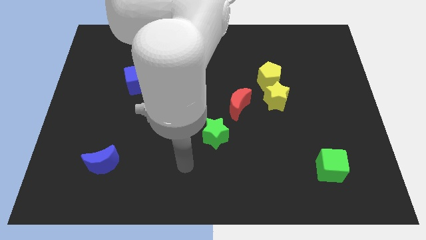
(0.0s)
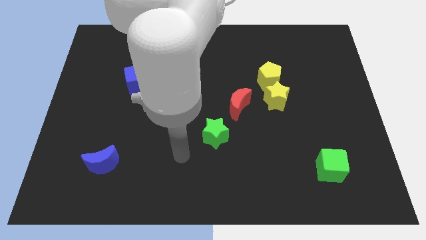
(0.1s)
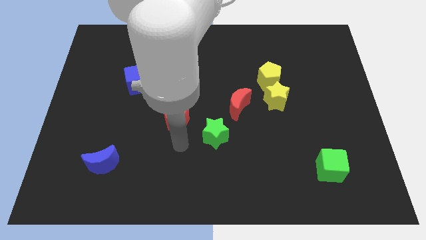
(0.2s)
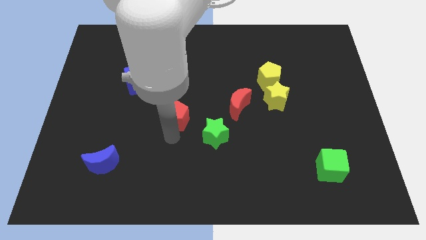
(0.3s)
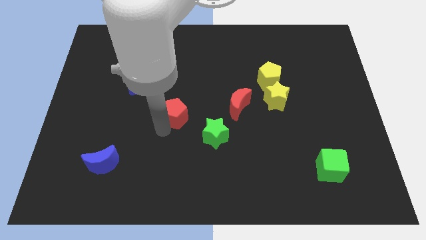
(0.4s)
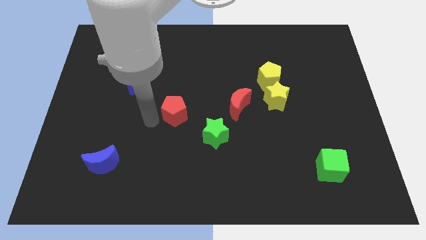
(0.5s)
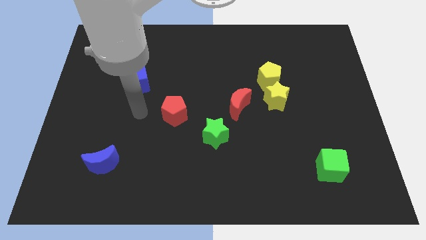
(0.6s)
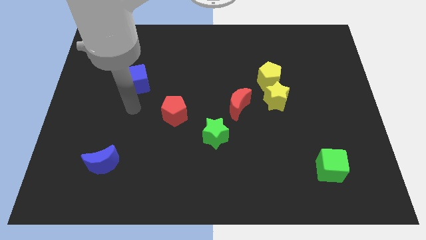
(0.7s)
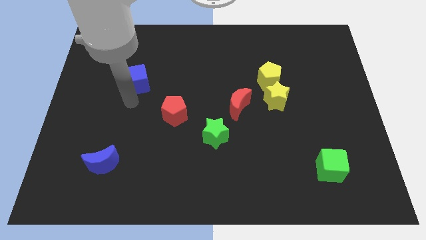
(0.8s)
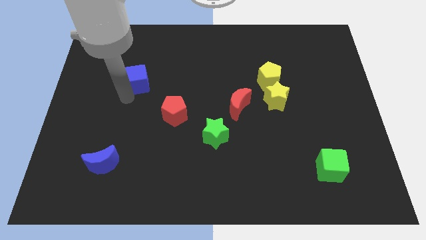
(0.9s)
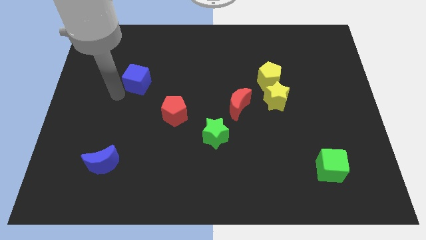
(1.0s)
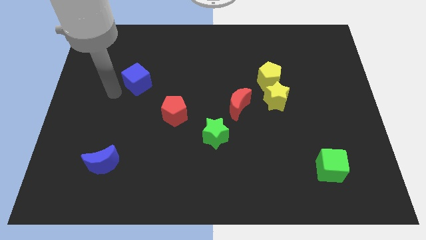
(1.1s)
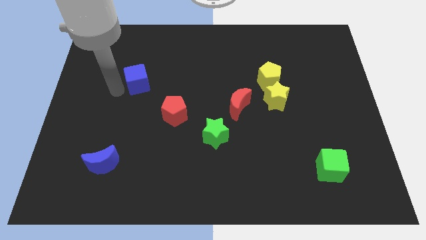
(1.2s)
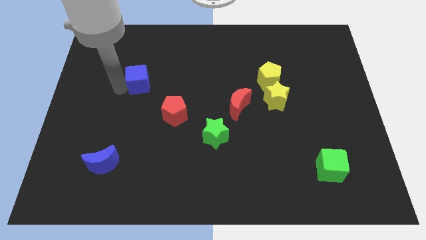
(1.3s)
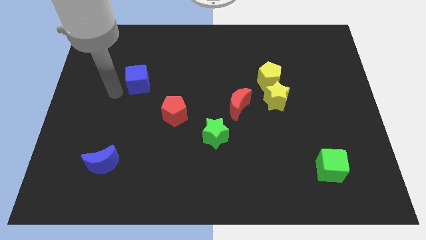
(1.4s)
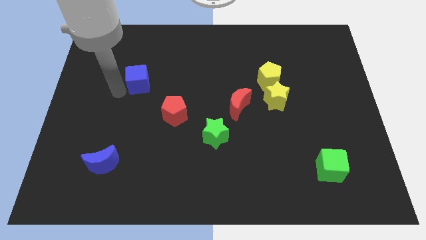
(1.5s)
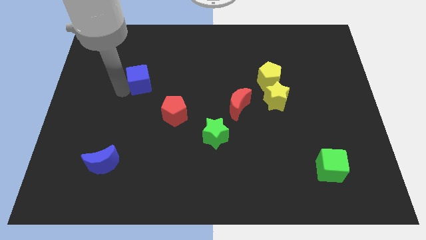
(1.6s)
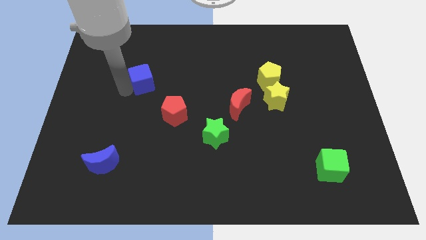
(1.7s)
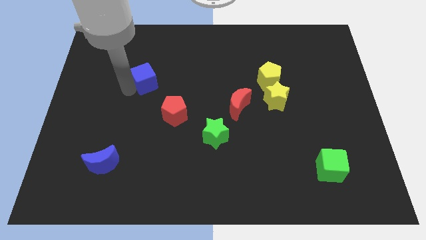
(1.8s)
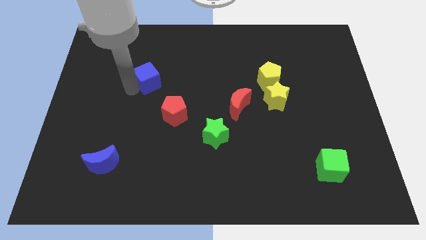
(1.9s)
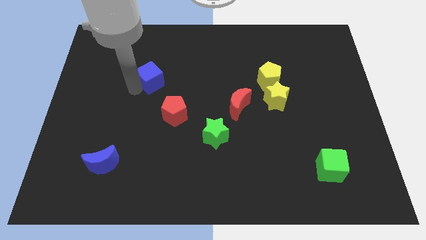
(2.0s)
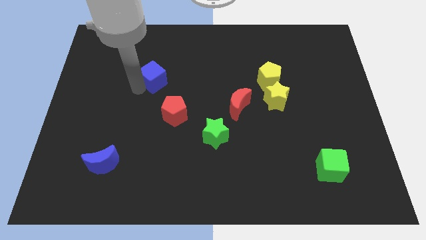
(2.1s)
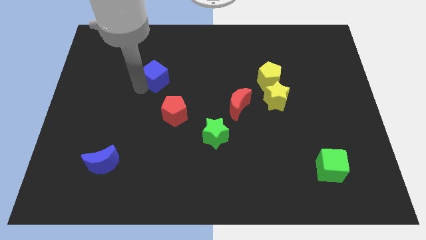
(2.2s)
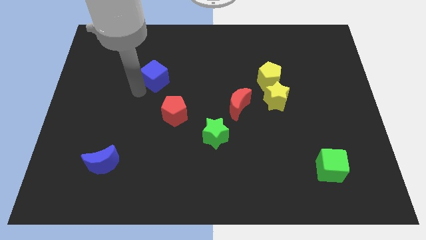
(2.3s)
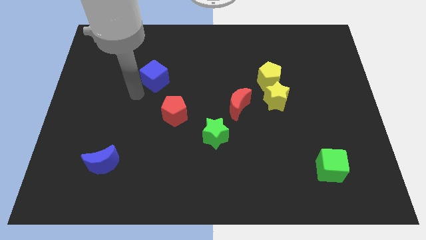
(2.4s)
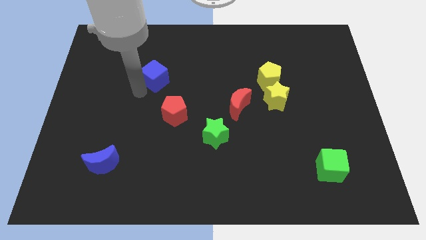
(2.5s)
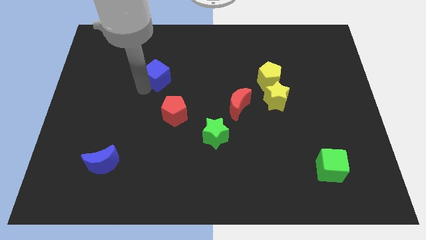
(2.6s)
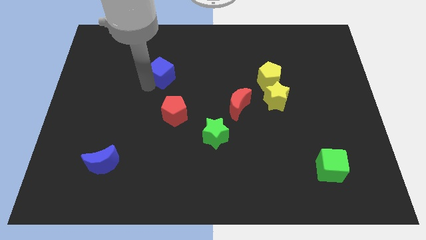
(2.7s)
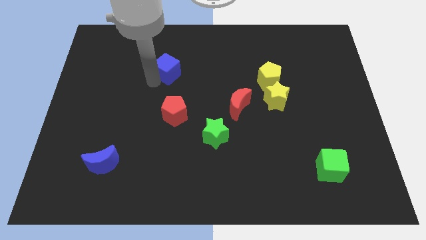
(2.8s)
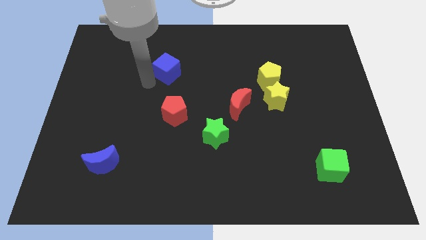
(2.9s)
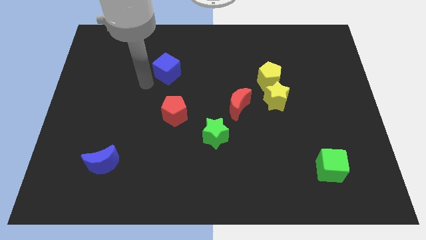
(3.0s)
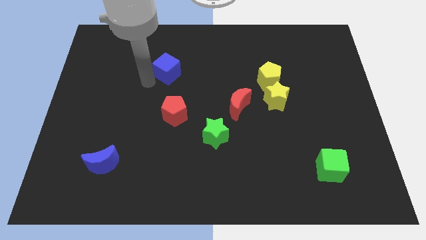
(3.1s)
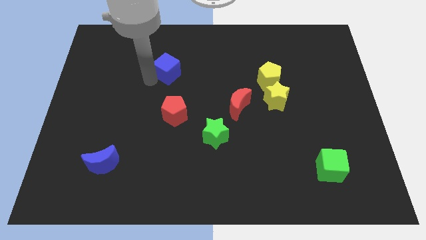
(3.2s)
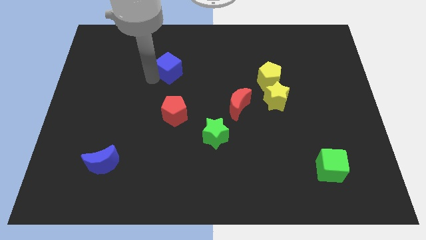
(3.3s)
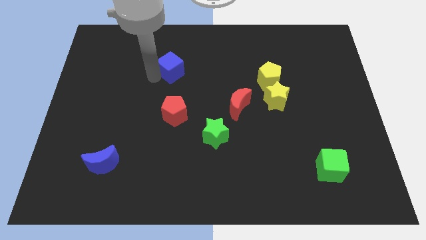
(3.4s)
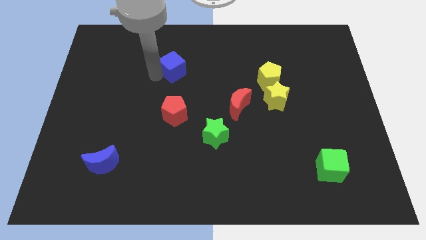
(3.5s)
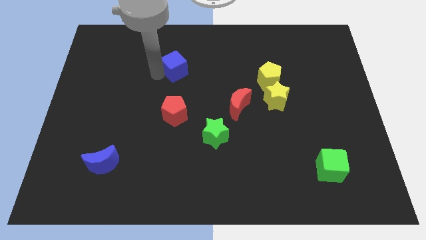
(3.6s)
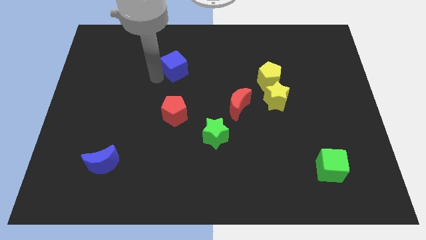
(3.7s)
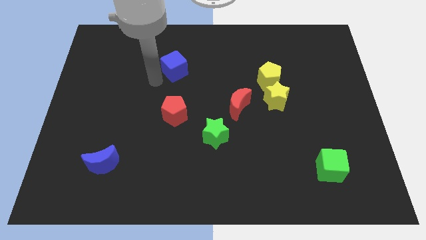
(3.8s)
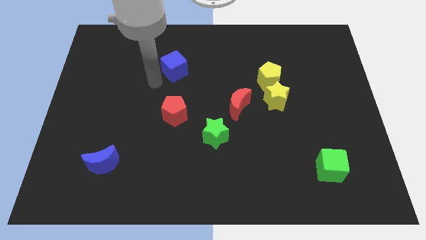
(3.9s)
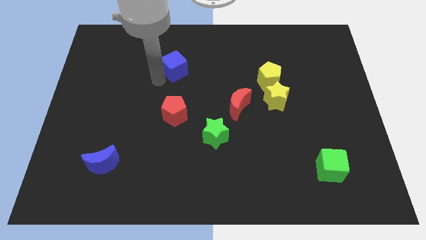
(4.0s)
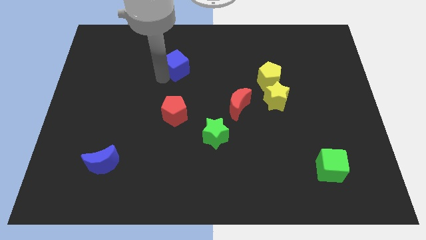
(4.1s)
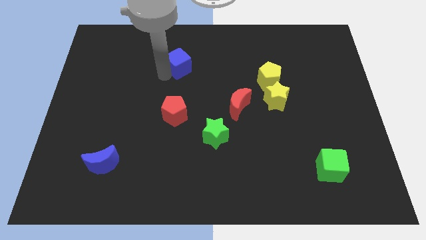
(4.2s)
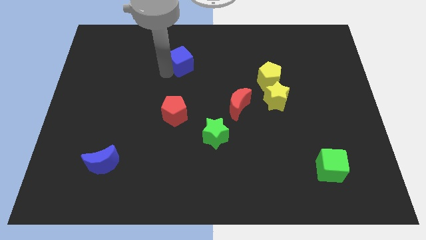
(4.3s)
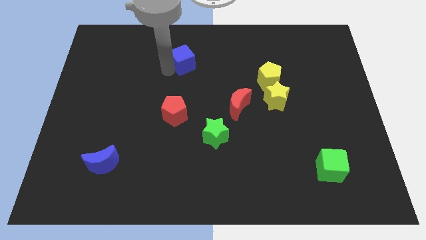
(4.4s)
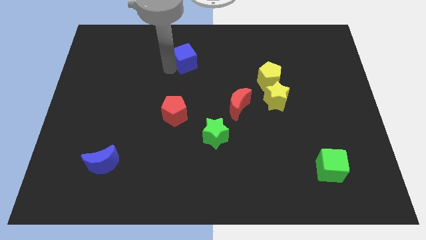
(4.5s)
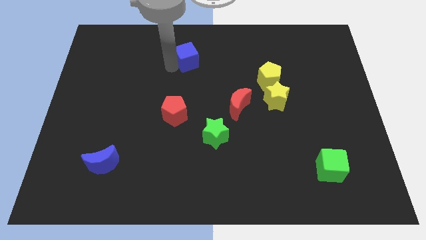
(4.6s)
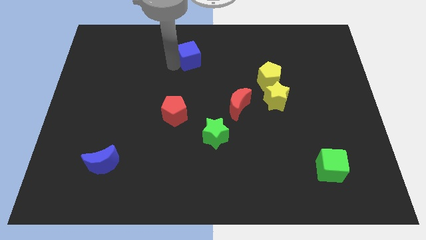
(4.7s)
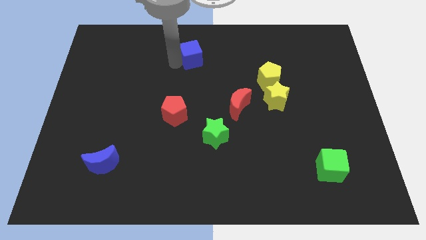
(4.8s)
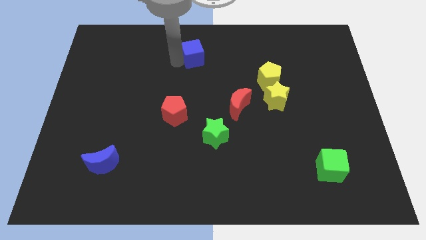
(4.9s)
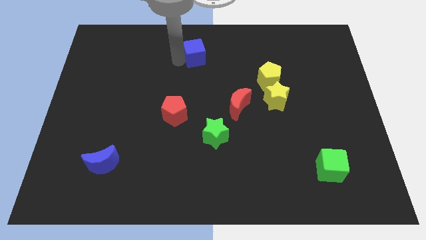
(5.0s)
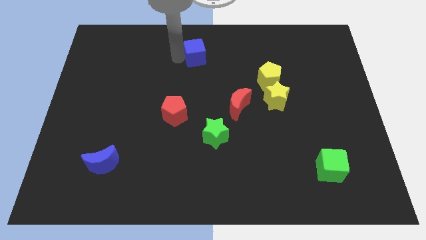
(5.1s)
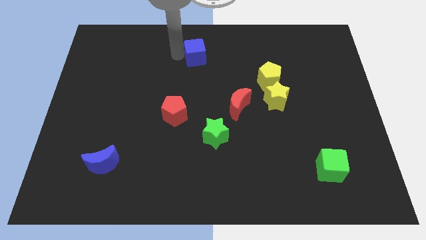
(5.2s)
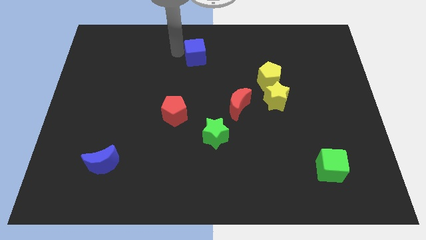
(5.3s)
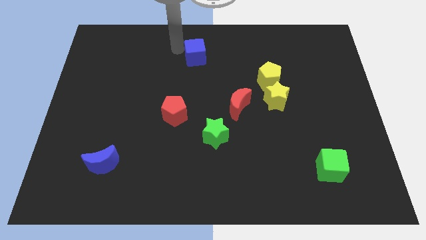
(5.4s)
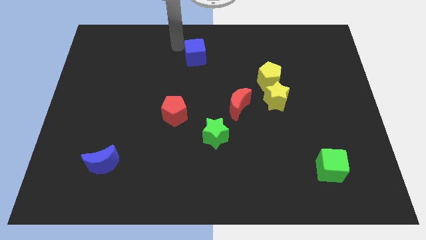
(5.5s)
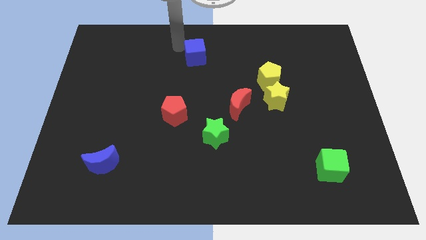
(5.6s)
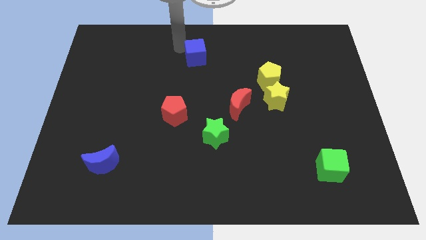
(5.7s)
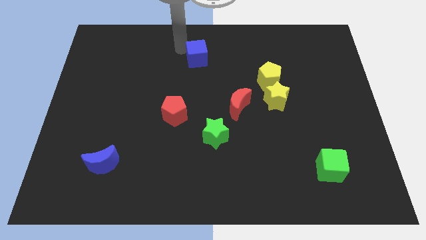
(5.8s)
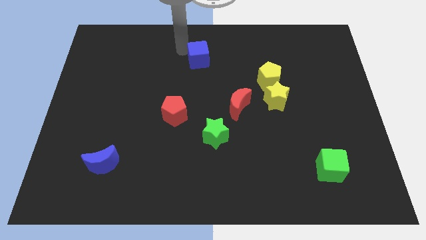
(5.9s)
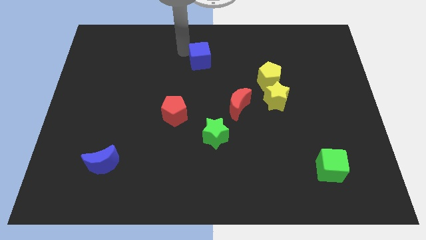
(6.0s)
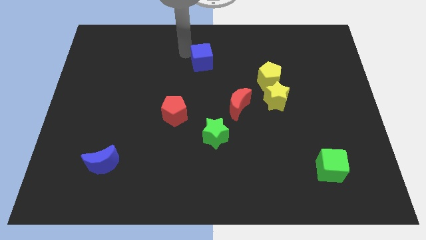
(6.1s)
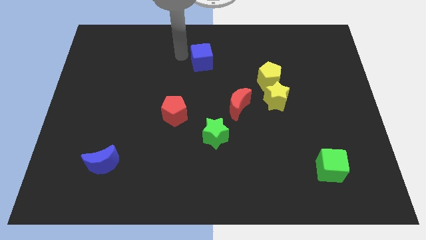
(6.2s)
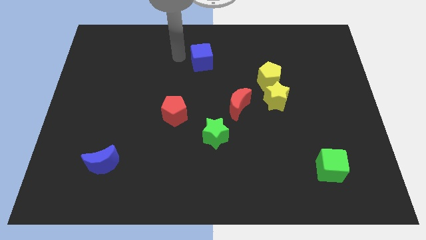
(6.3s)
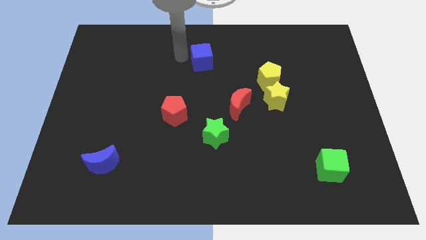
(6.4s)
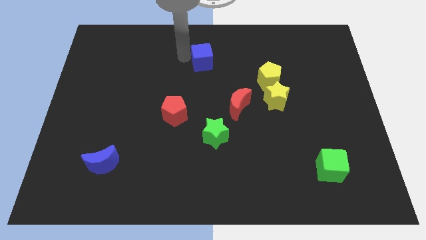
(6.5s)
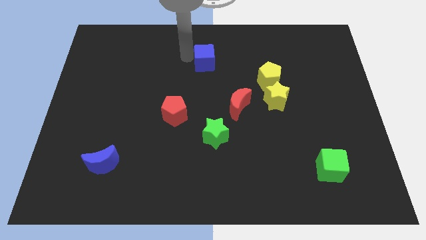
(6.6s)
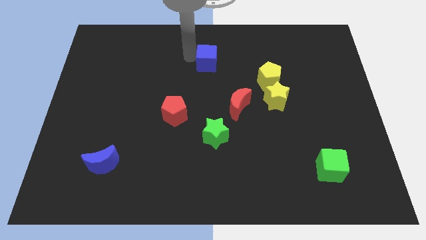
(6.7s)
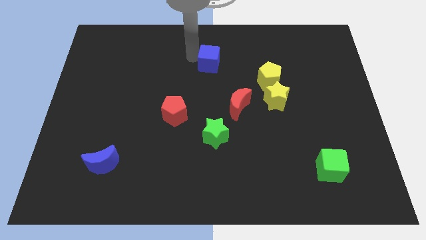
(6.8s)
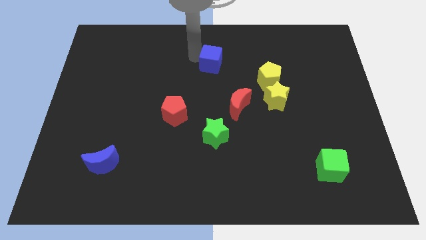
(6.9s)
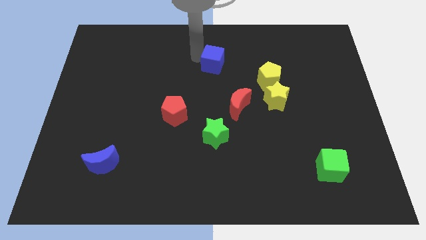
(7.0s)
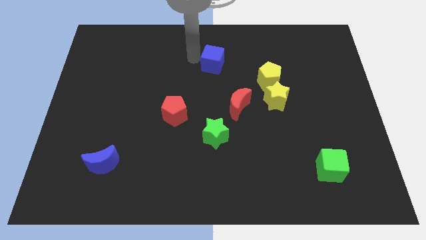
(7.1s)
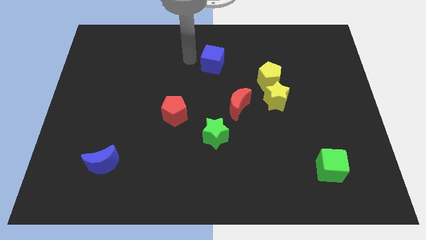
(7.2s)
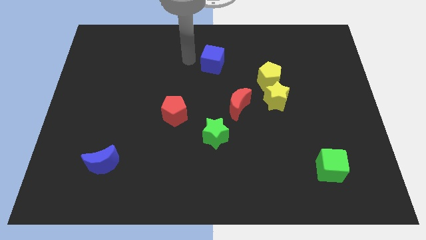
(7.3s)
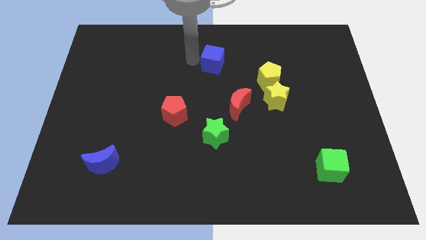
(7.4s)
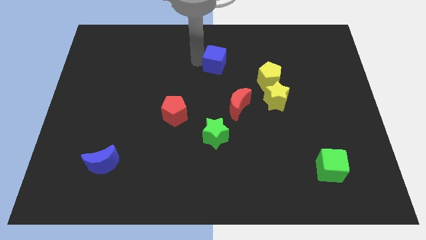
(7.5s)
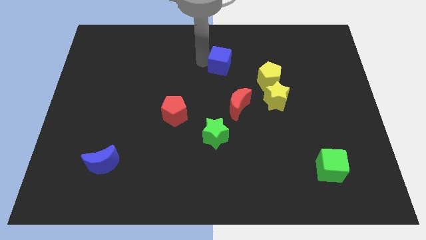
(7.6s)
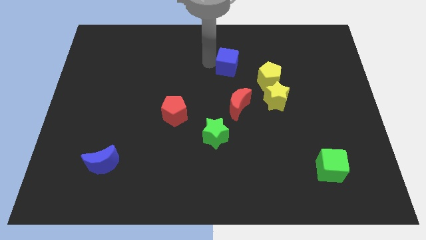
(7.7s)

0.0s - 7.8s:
put the blue cube to the top left side of the yellow pentagon
